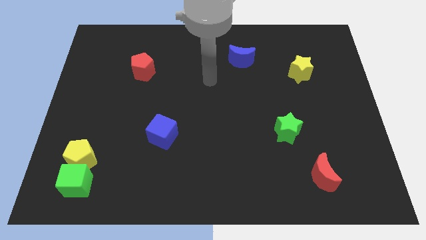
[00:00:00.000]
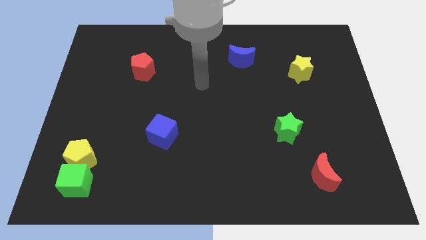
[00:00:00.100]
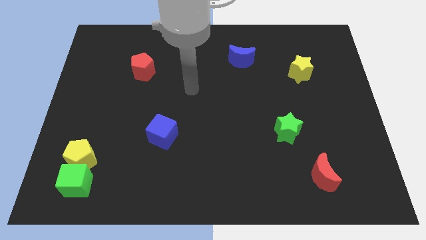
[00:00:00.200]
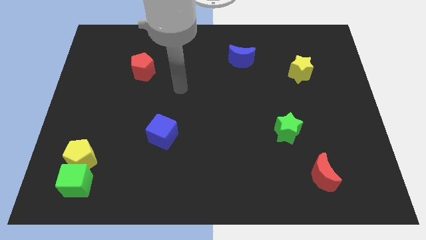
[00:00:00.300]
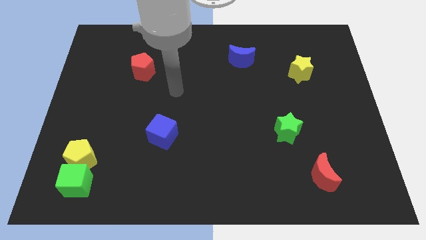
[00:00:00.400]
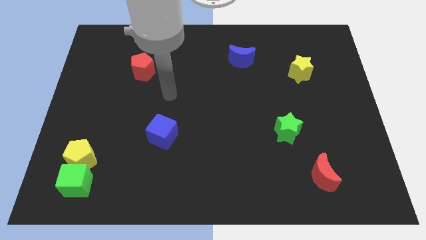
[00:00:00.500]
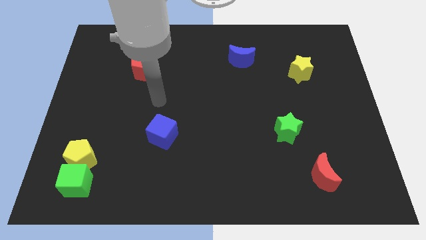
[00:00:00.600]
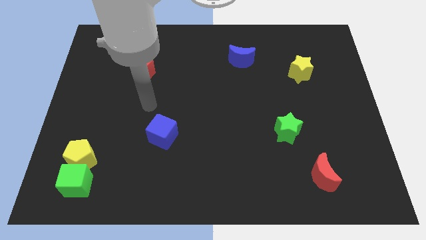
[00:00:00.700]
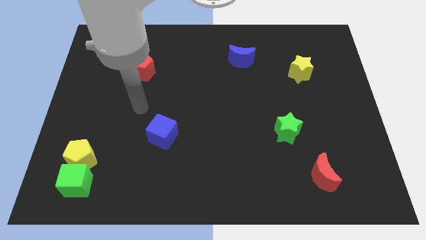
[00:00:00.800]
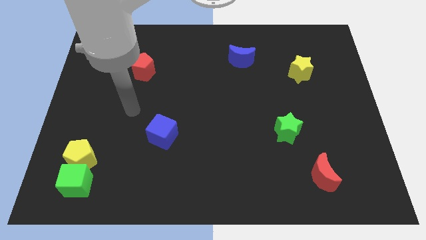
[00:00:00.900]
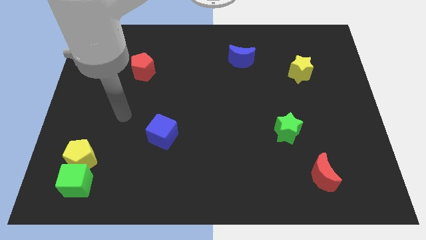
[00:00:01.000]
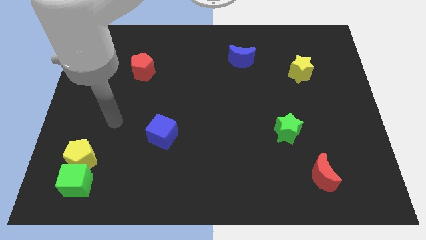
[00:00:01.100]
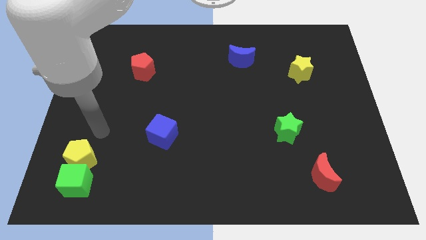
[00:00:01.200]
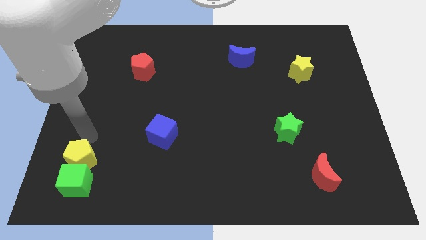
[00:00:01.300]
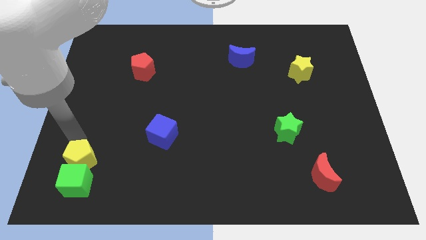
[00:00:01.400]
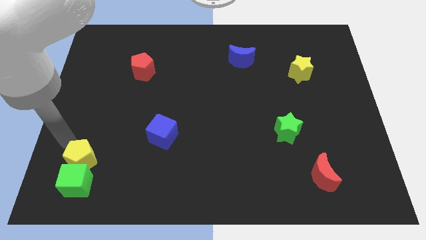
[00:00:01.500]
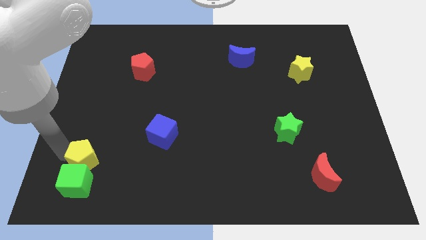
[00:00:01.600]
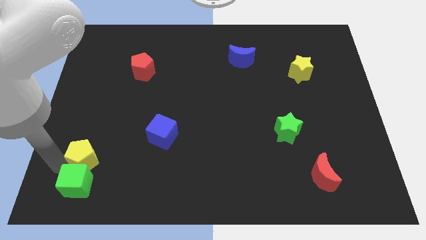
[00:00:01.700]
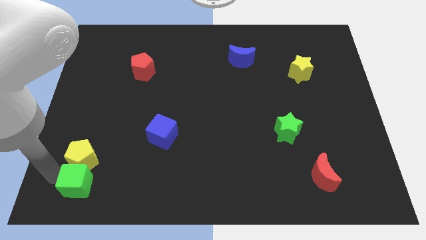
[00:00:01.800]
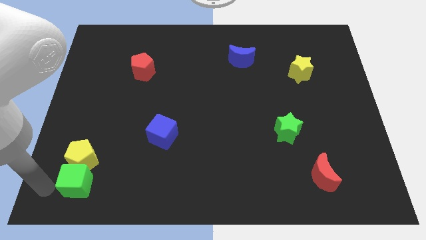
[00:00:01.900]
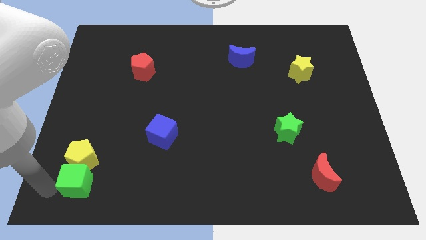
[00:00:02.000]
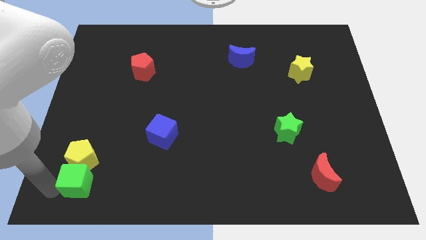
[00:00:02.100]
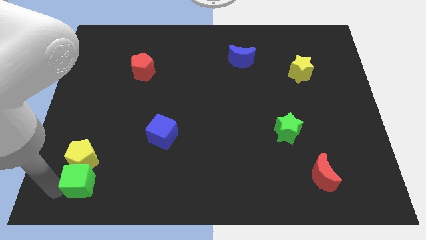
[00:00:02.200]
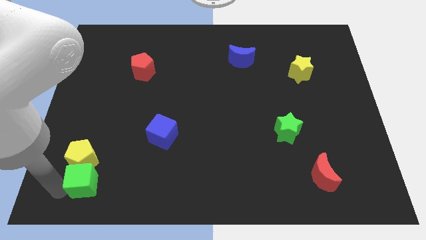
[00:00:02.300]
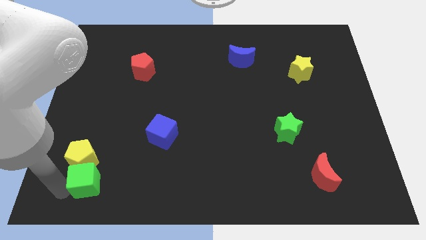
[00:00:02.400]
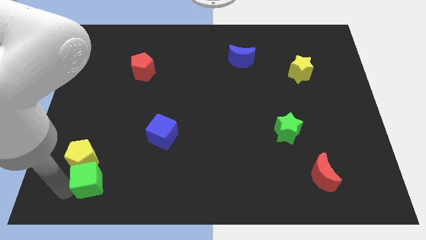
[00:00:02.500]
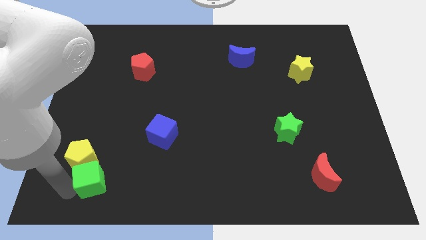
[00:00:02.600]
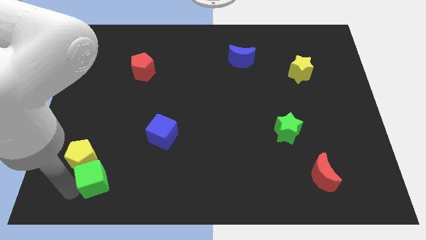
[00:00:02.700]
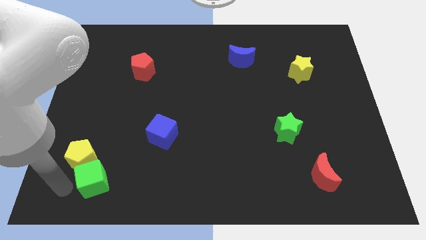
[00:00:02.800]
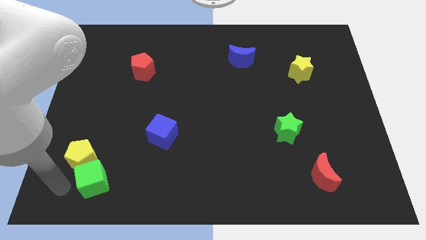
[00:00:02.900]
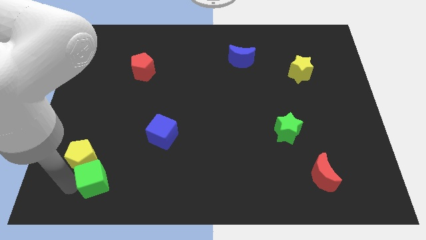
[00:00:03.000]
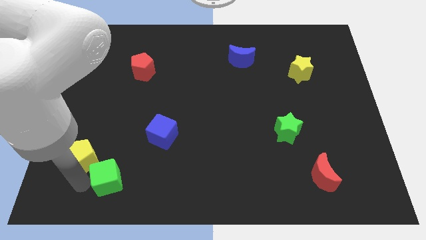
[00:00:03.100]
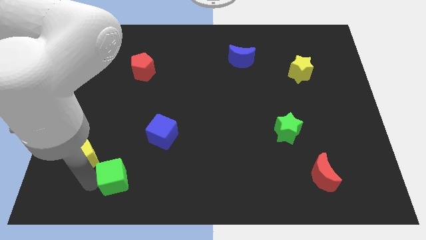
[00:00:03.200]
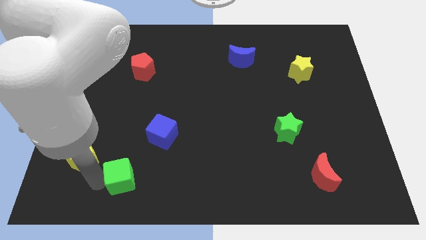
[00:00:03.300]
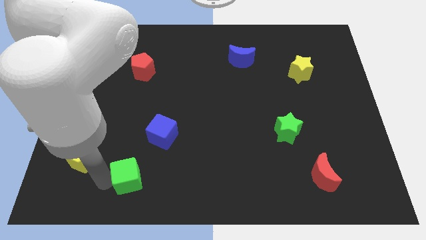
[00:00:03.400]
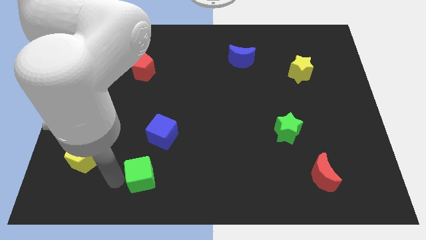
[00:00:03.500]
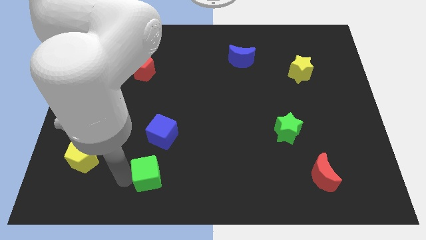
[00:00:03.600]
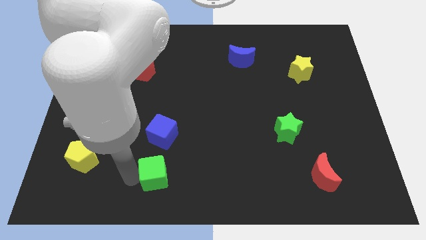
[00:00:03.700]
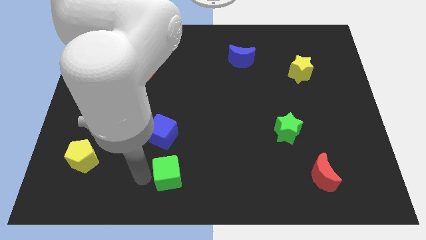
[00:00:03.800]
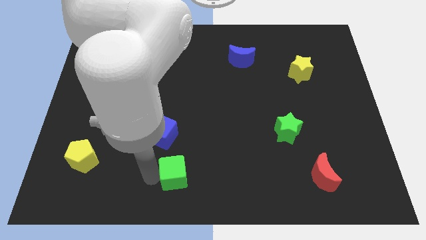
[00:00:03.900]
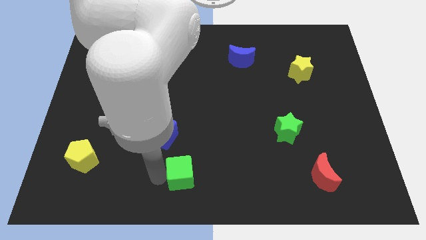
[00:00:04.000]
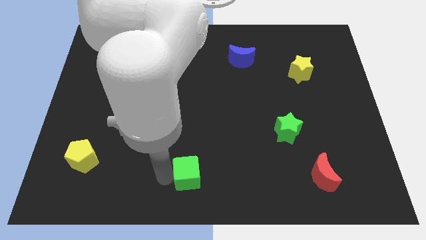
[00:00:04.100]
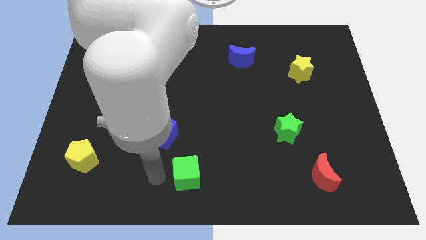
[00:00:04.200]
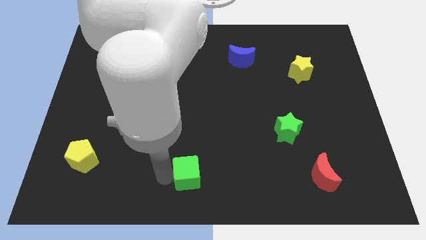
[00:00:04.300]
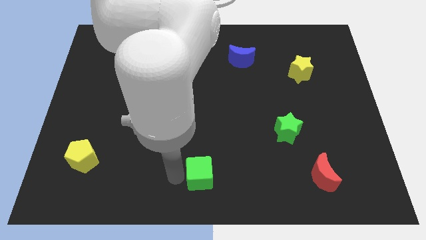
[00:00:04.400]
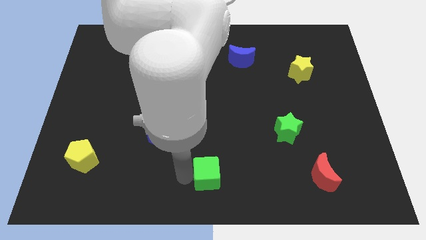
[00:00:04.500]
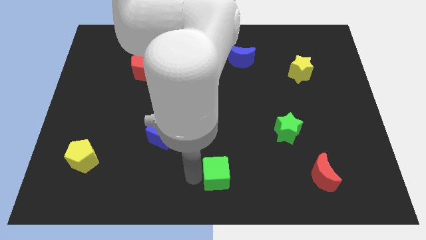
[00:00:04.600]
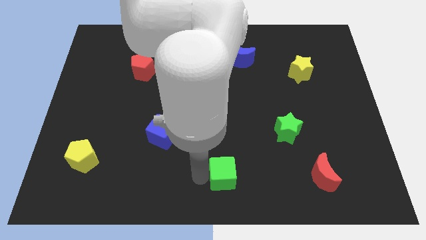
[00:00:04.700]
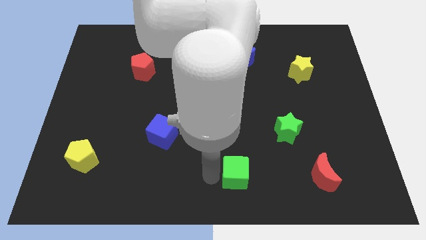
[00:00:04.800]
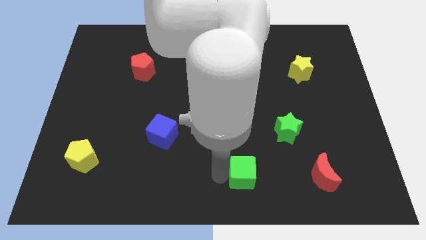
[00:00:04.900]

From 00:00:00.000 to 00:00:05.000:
push the green cube just left of the red moon

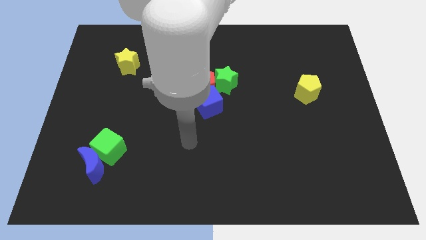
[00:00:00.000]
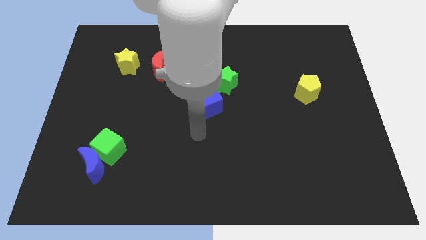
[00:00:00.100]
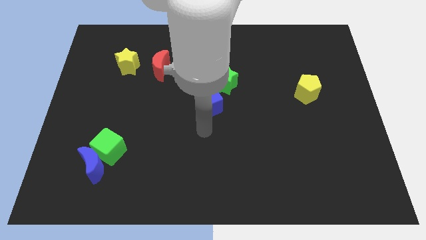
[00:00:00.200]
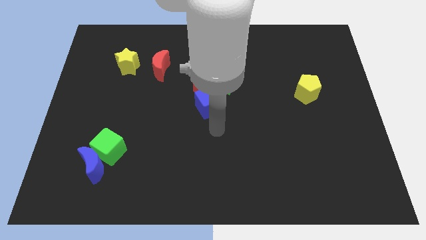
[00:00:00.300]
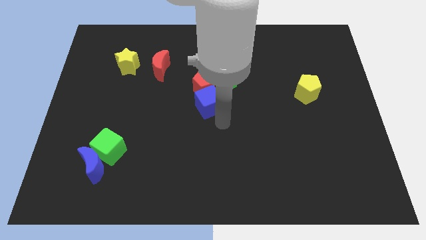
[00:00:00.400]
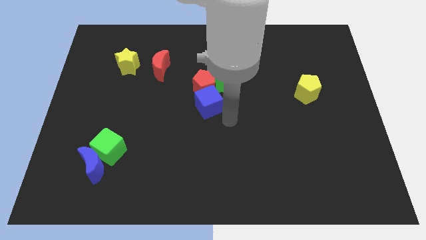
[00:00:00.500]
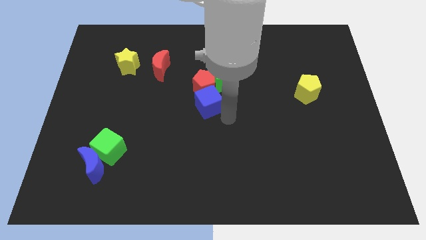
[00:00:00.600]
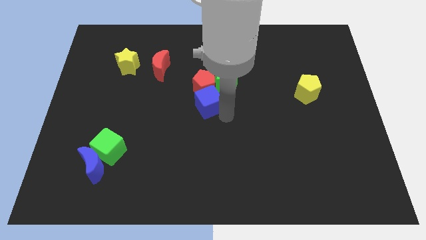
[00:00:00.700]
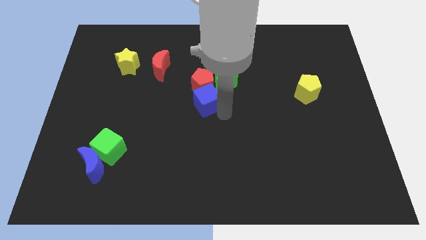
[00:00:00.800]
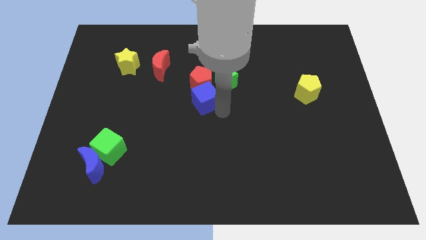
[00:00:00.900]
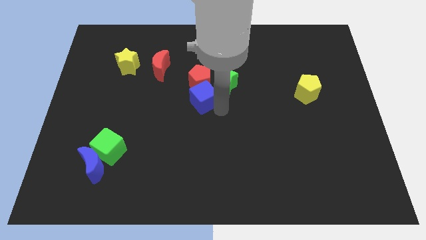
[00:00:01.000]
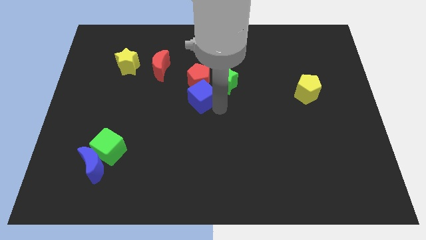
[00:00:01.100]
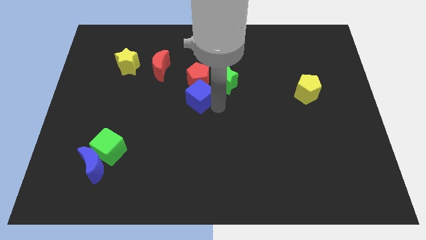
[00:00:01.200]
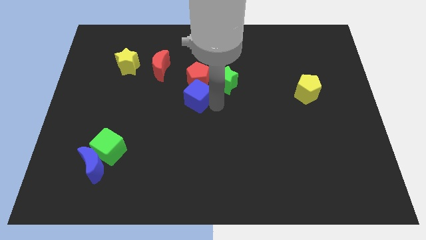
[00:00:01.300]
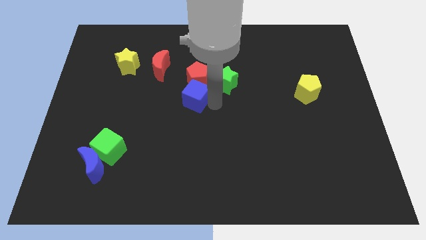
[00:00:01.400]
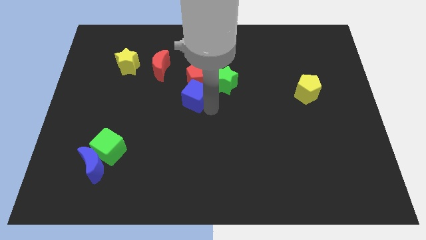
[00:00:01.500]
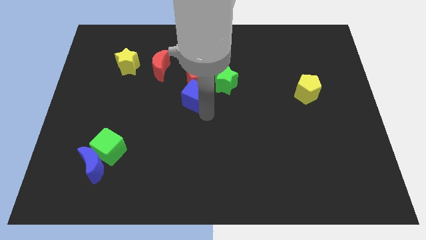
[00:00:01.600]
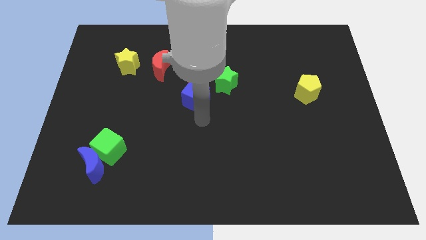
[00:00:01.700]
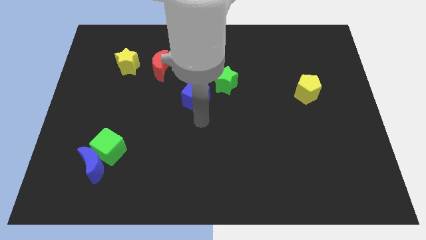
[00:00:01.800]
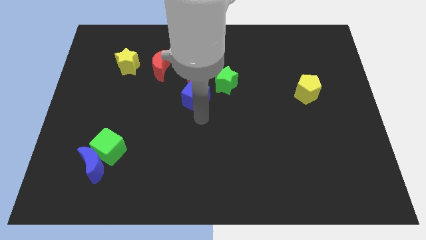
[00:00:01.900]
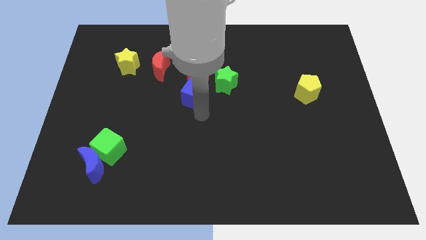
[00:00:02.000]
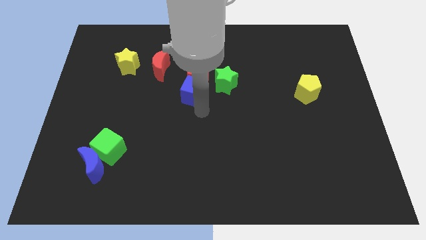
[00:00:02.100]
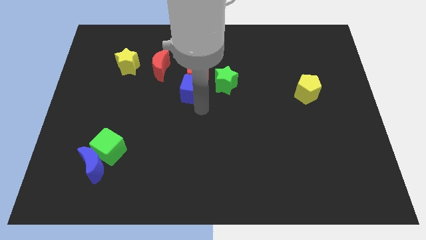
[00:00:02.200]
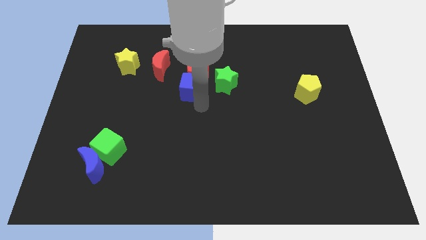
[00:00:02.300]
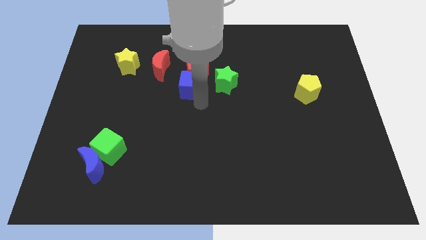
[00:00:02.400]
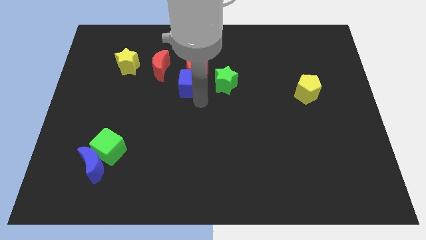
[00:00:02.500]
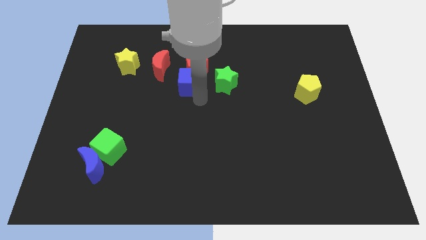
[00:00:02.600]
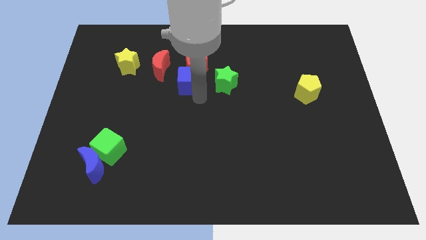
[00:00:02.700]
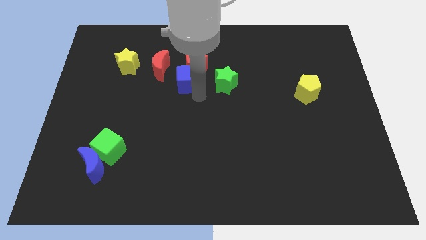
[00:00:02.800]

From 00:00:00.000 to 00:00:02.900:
put the blue cube to the right of the red moon
